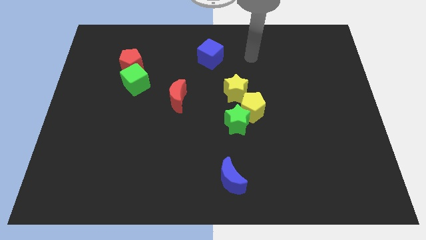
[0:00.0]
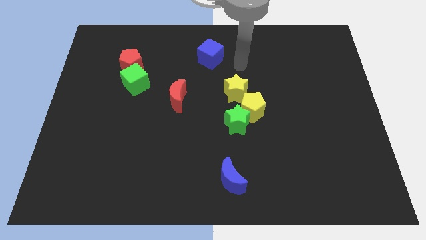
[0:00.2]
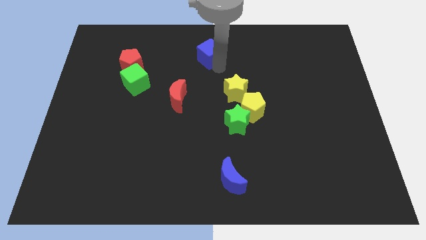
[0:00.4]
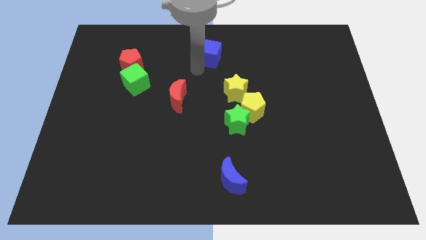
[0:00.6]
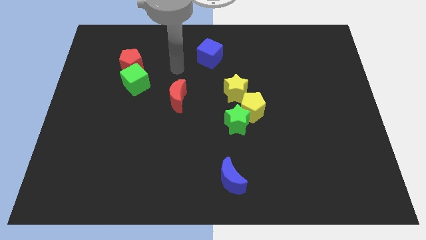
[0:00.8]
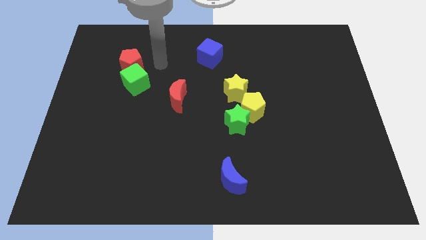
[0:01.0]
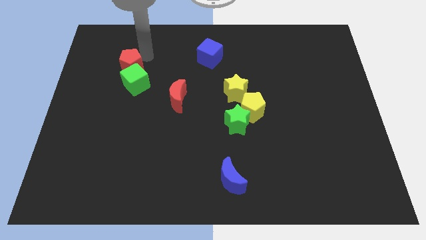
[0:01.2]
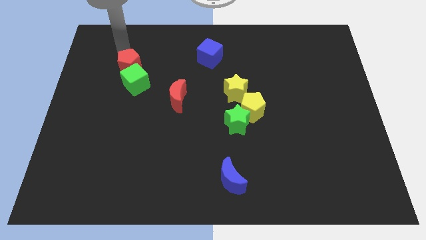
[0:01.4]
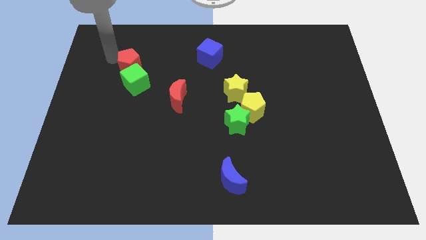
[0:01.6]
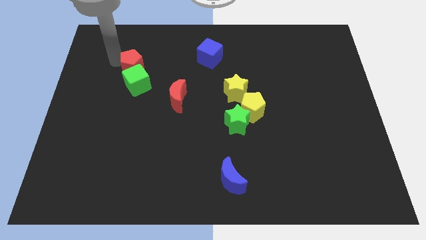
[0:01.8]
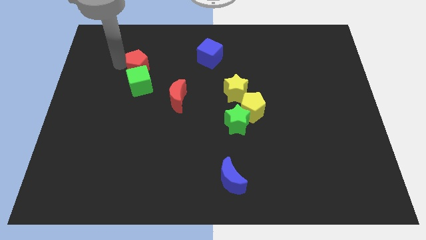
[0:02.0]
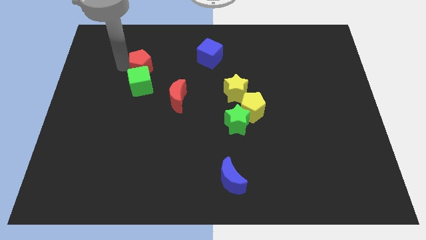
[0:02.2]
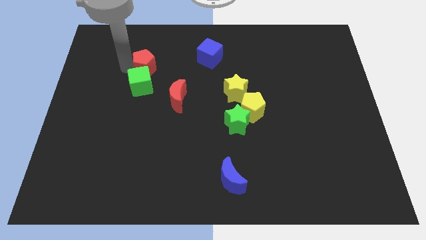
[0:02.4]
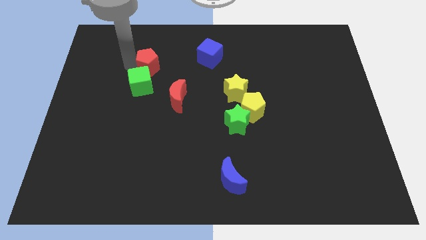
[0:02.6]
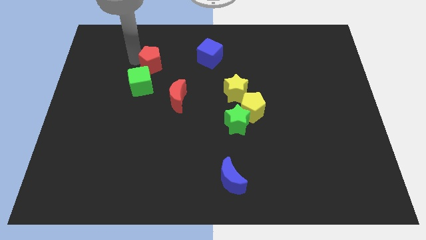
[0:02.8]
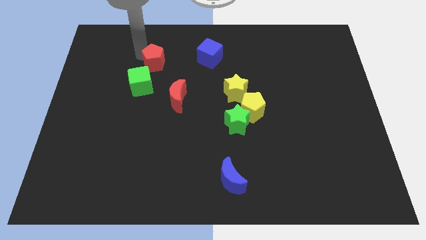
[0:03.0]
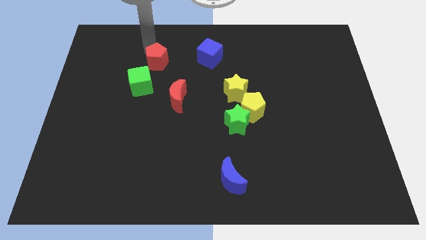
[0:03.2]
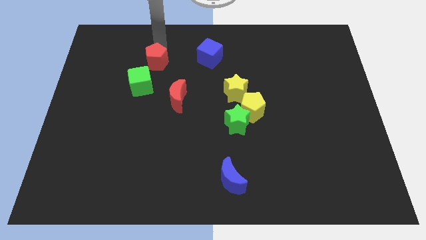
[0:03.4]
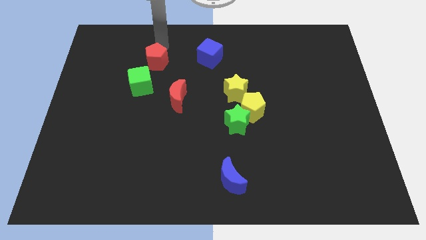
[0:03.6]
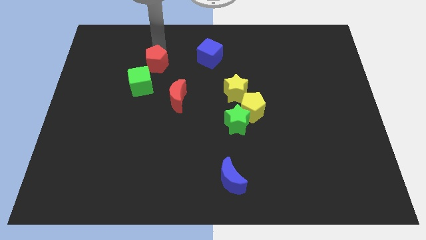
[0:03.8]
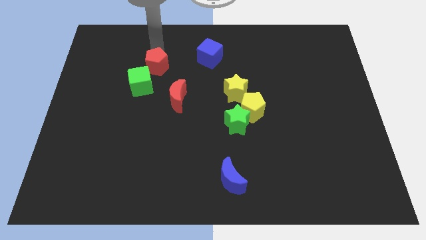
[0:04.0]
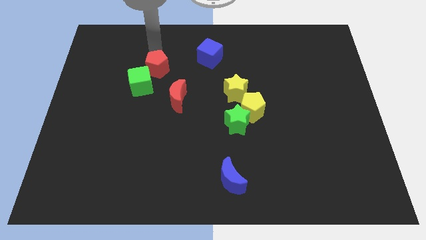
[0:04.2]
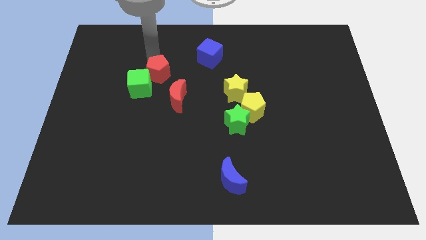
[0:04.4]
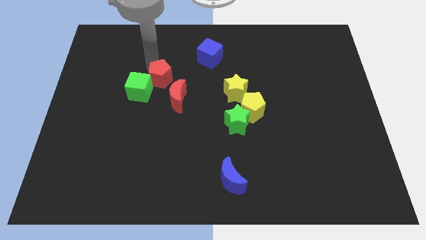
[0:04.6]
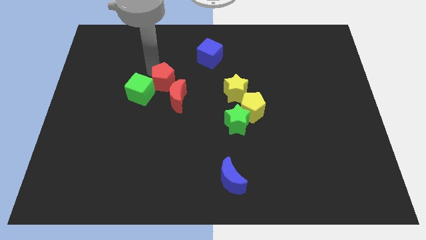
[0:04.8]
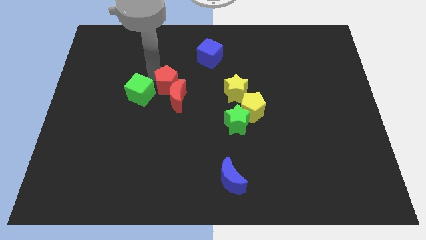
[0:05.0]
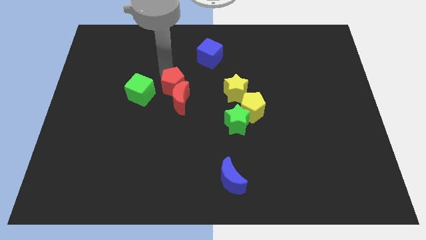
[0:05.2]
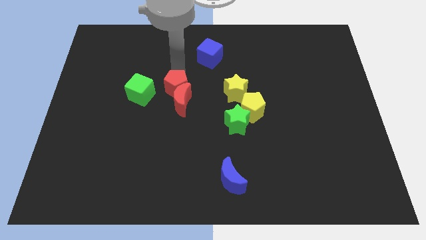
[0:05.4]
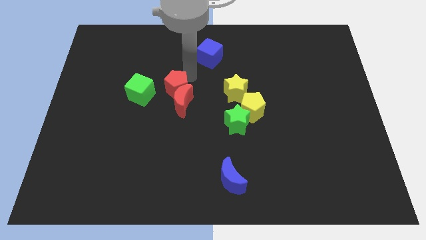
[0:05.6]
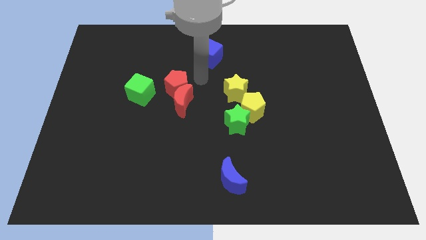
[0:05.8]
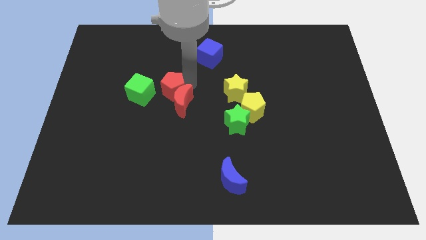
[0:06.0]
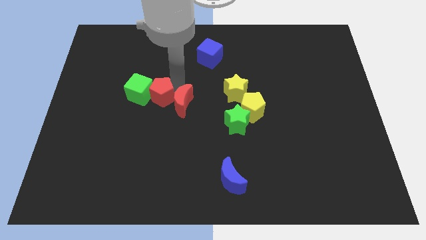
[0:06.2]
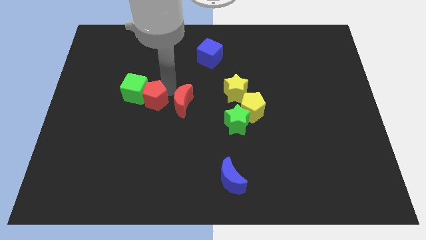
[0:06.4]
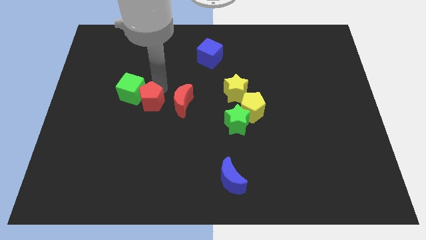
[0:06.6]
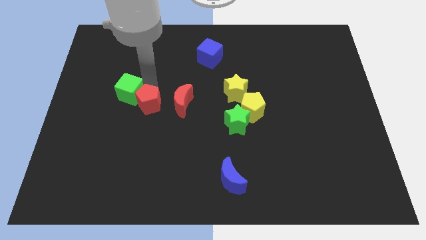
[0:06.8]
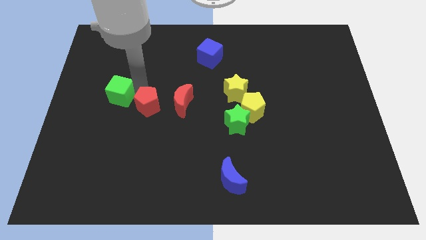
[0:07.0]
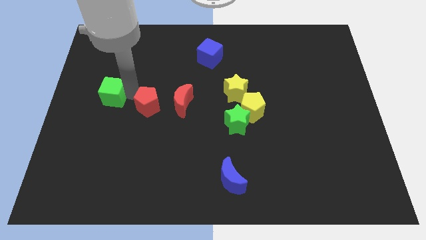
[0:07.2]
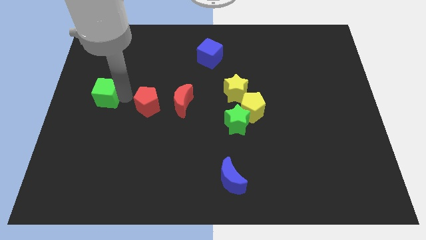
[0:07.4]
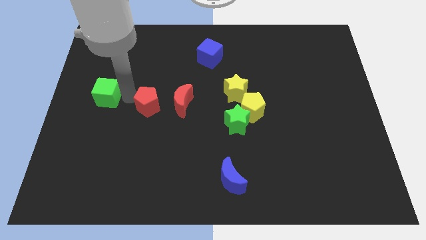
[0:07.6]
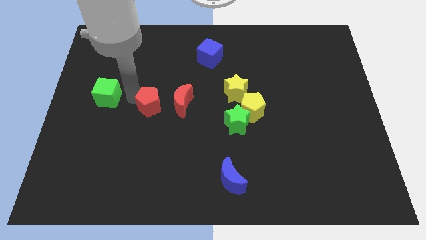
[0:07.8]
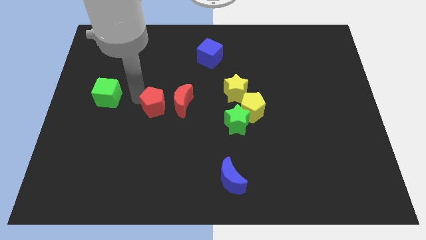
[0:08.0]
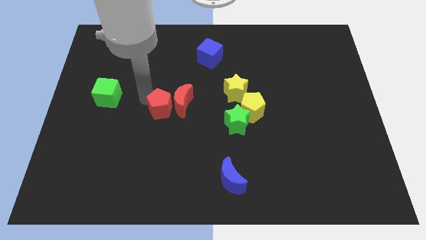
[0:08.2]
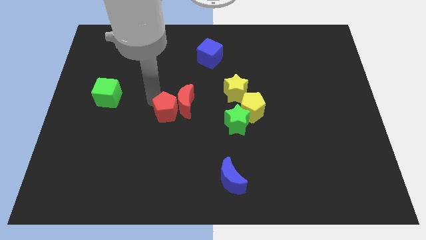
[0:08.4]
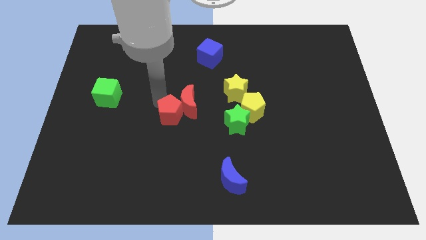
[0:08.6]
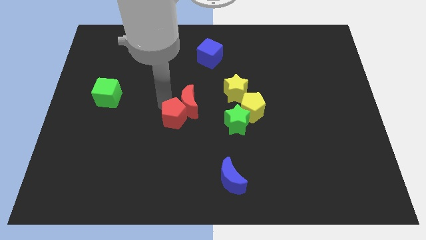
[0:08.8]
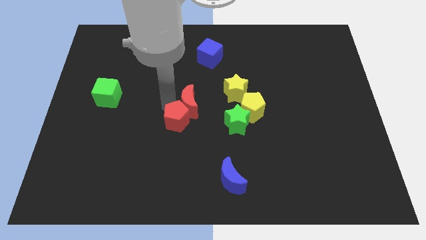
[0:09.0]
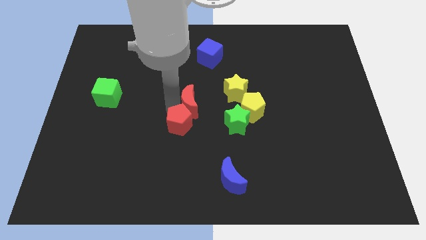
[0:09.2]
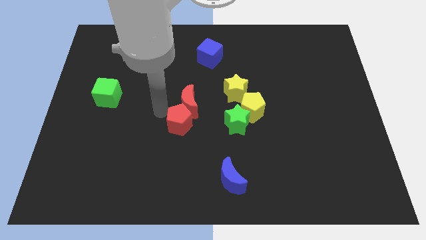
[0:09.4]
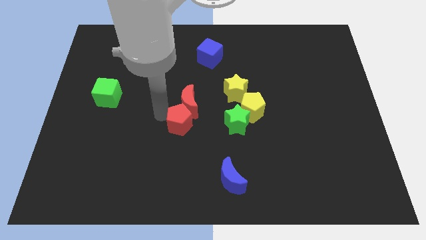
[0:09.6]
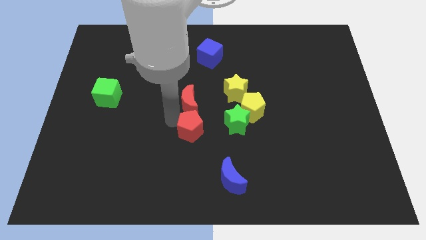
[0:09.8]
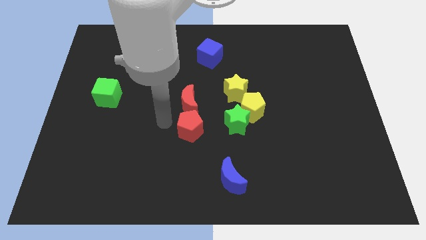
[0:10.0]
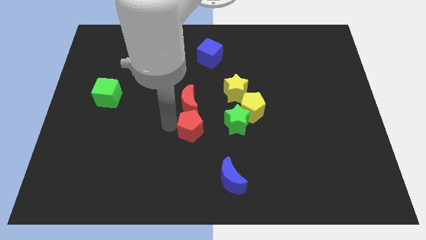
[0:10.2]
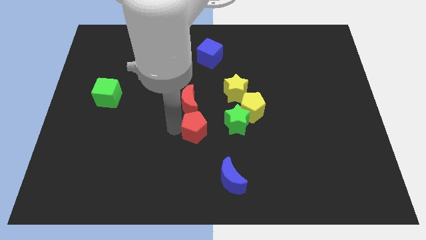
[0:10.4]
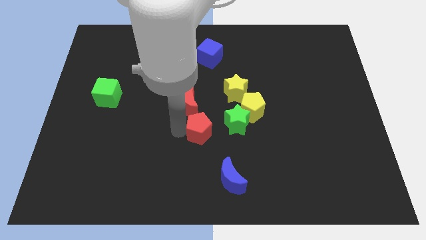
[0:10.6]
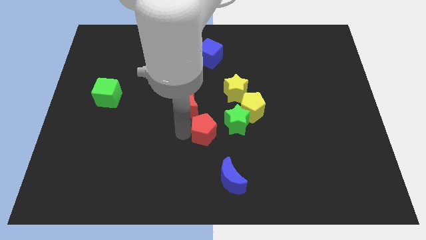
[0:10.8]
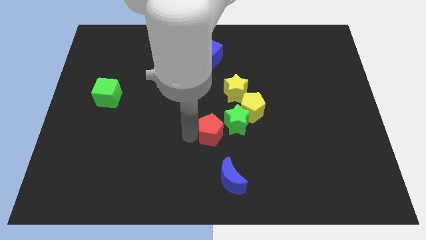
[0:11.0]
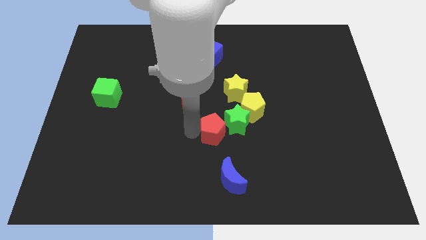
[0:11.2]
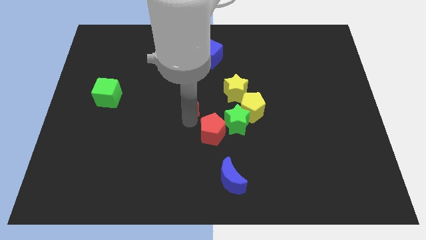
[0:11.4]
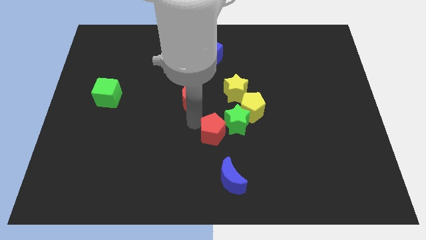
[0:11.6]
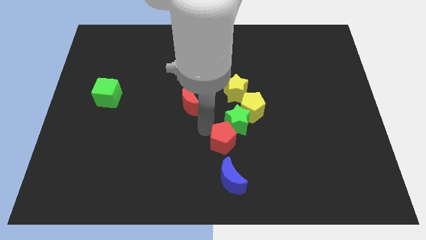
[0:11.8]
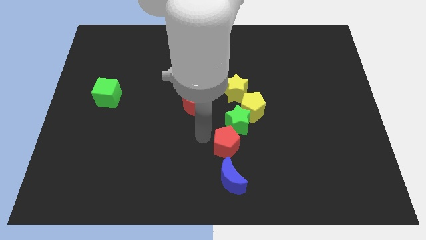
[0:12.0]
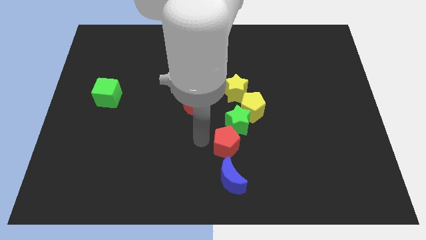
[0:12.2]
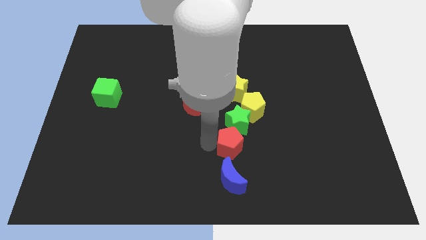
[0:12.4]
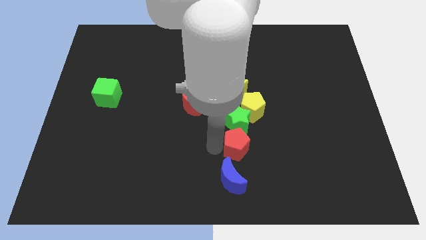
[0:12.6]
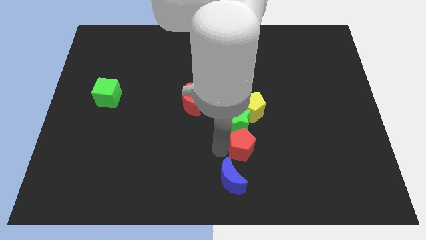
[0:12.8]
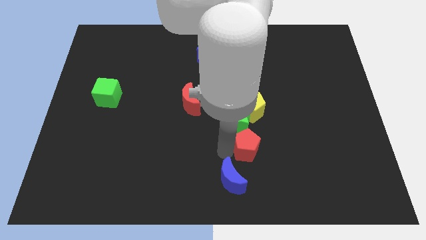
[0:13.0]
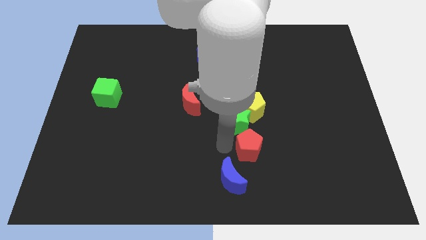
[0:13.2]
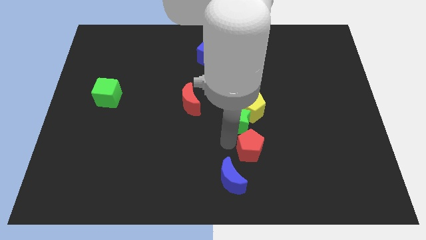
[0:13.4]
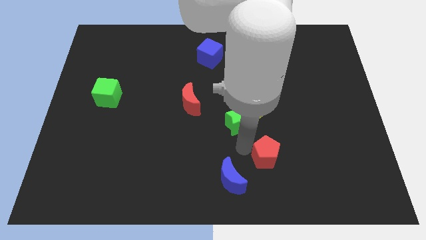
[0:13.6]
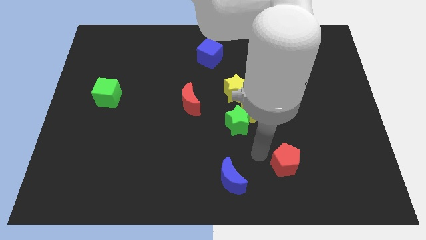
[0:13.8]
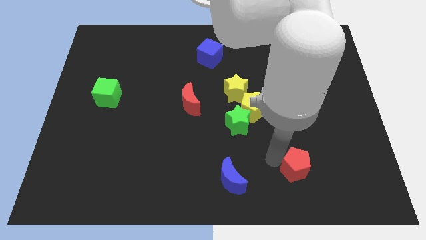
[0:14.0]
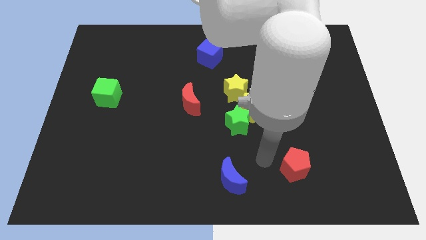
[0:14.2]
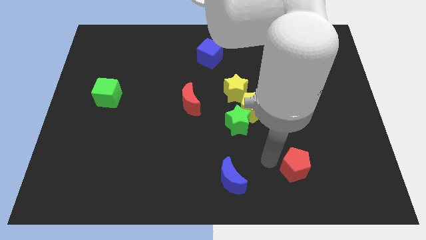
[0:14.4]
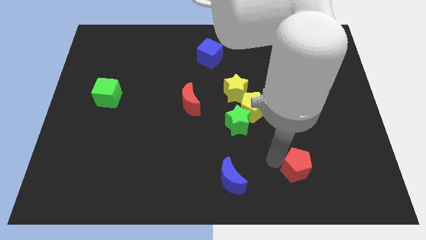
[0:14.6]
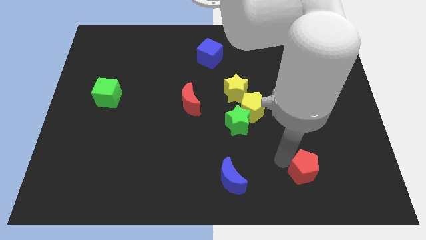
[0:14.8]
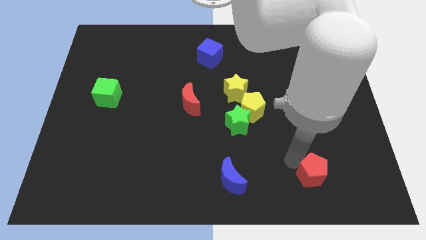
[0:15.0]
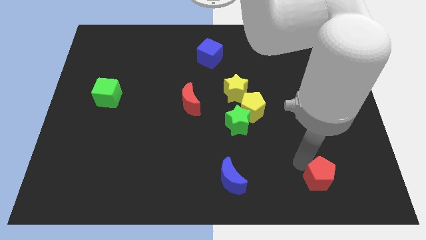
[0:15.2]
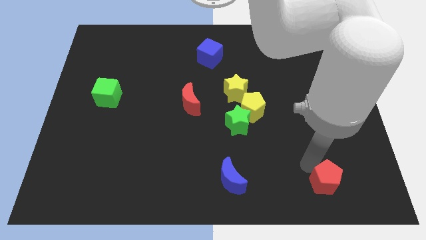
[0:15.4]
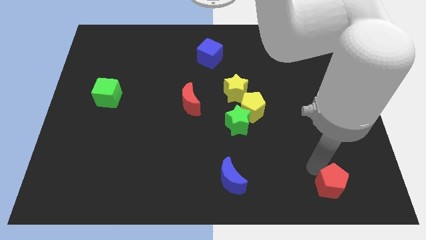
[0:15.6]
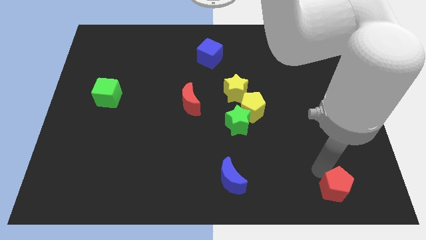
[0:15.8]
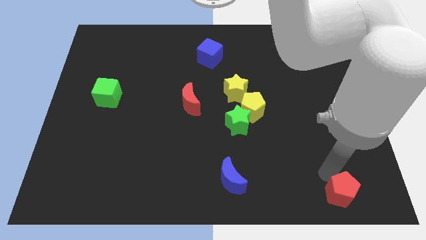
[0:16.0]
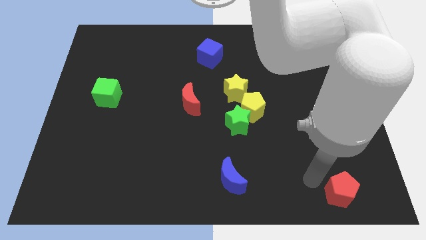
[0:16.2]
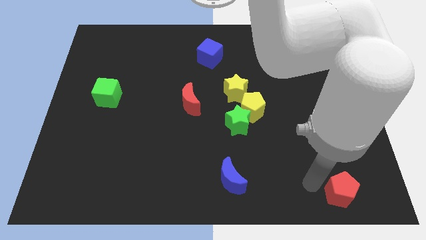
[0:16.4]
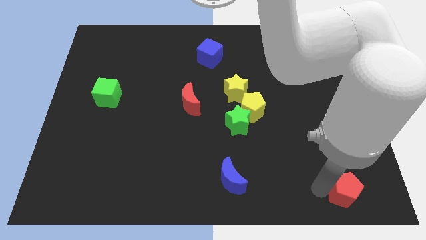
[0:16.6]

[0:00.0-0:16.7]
put the red pentagon to the bottom right of the board
